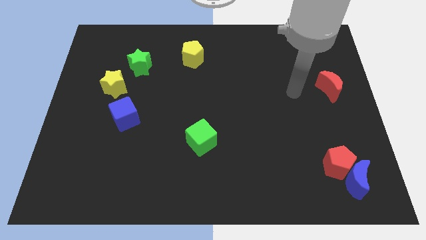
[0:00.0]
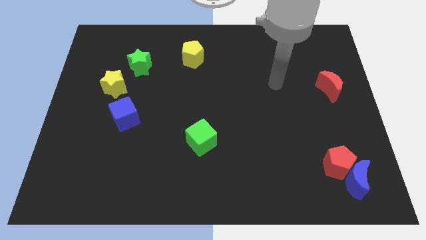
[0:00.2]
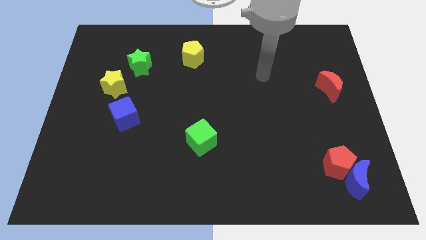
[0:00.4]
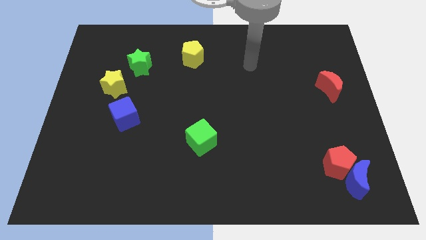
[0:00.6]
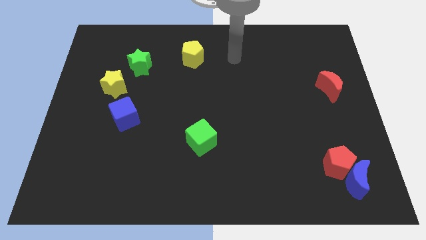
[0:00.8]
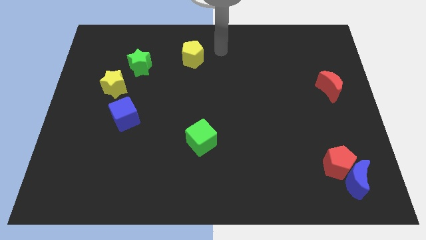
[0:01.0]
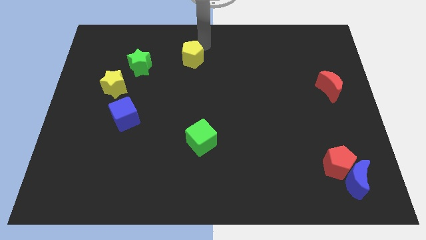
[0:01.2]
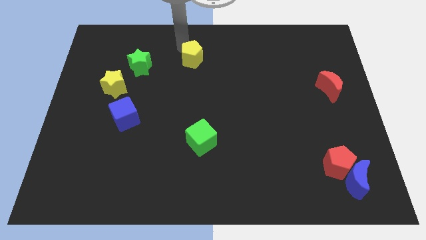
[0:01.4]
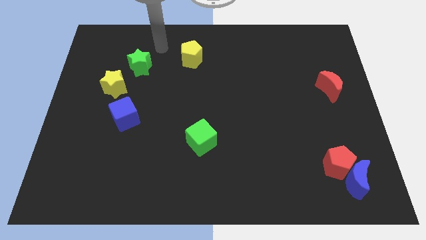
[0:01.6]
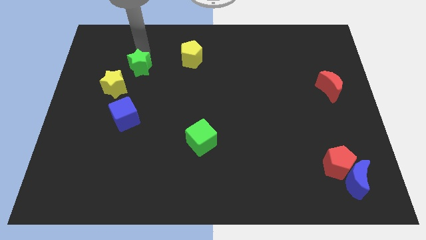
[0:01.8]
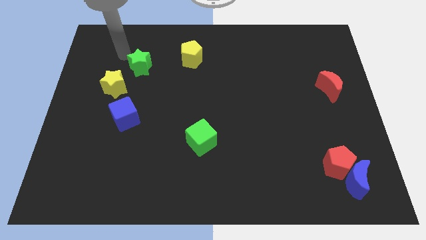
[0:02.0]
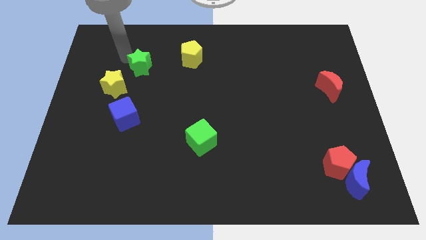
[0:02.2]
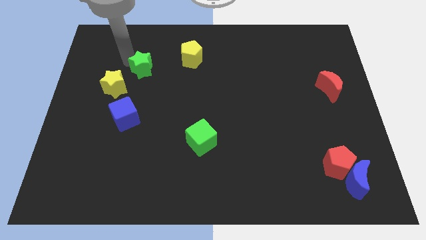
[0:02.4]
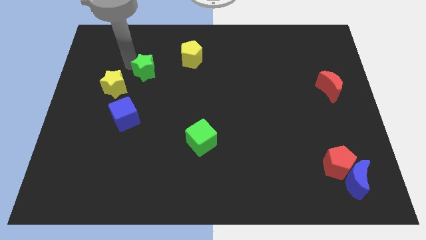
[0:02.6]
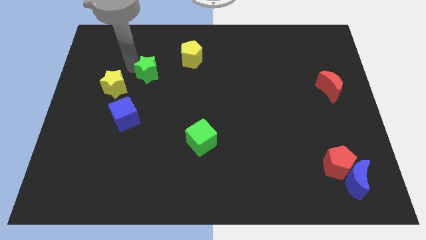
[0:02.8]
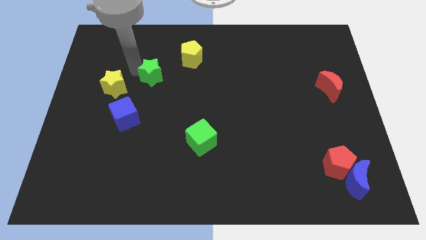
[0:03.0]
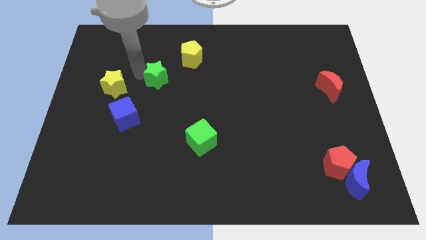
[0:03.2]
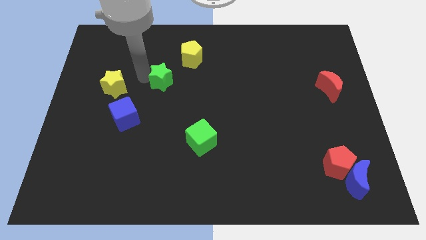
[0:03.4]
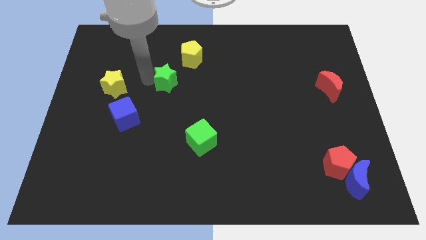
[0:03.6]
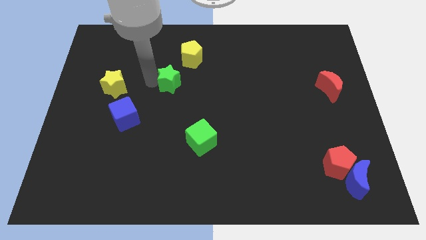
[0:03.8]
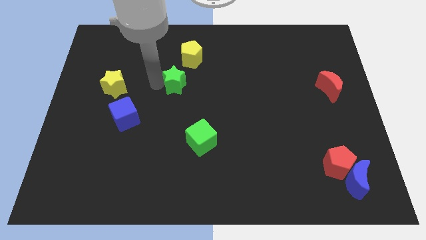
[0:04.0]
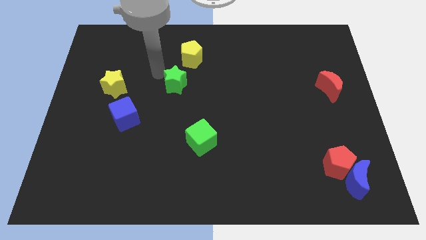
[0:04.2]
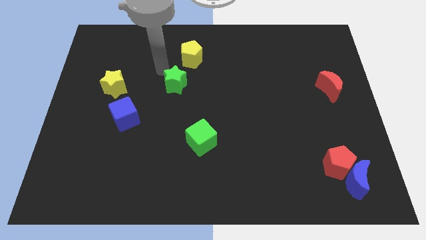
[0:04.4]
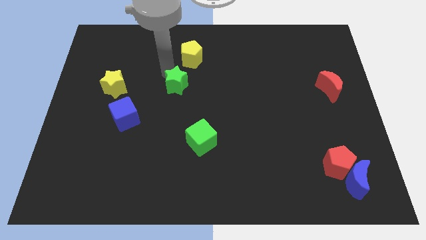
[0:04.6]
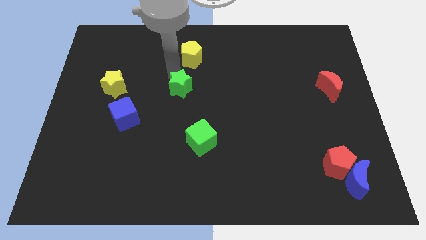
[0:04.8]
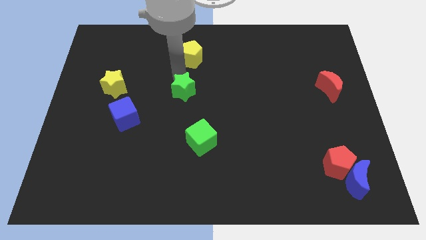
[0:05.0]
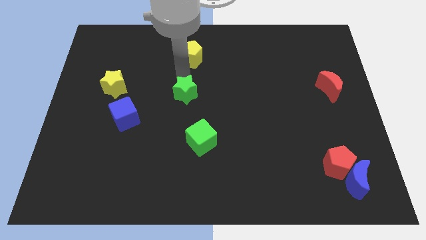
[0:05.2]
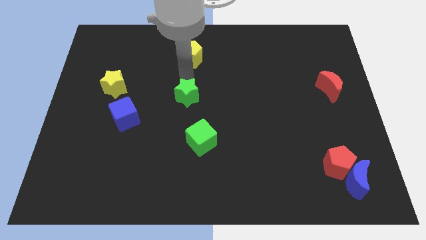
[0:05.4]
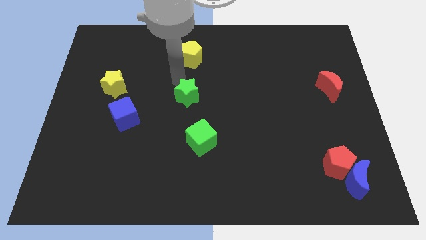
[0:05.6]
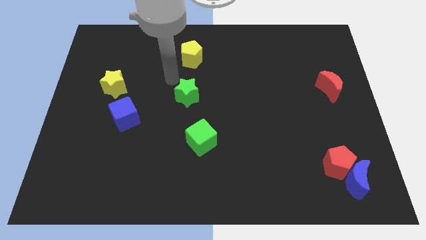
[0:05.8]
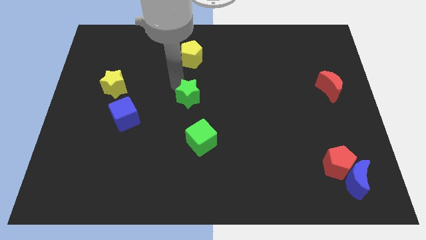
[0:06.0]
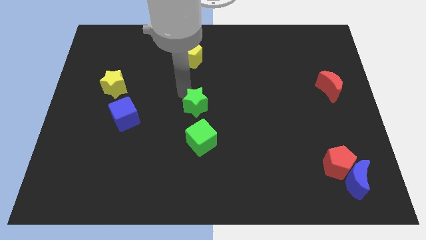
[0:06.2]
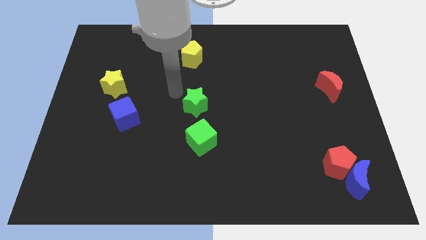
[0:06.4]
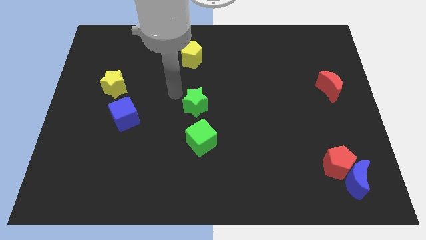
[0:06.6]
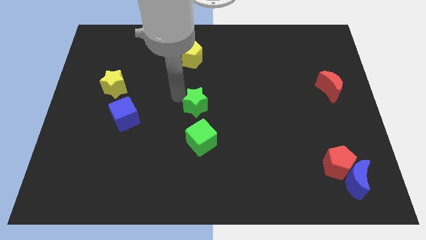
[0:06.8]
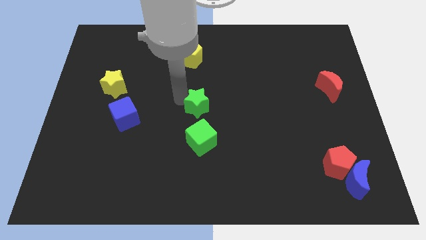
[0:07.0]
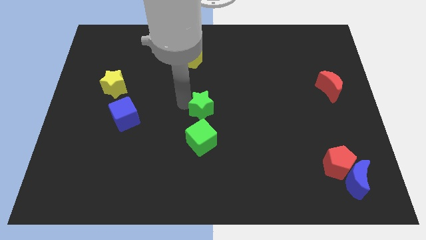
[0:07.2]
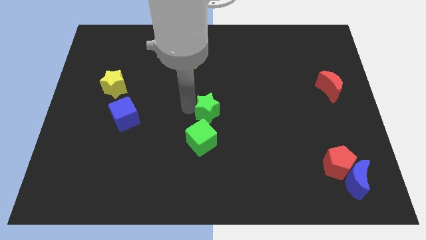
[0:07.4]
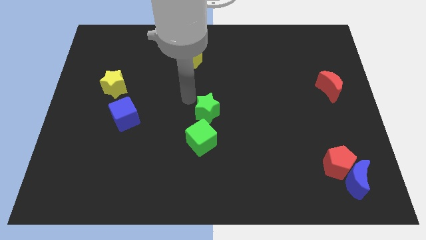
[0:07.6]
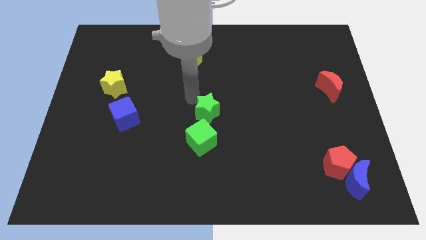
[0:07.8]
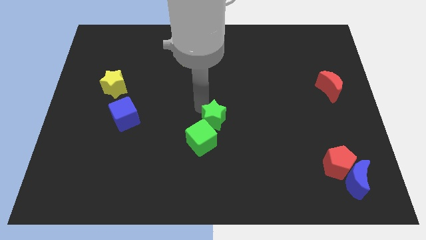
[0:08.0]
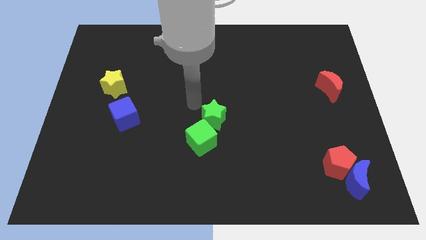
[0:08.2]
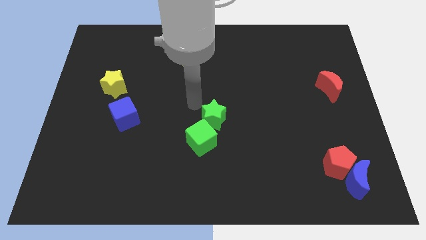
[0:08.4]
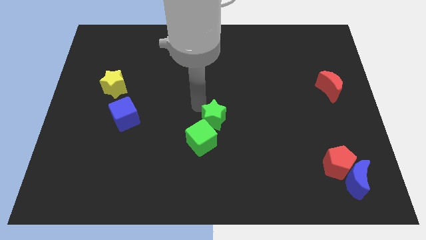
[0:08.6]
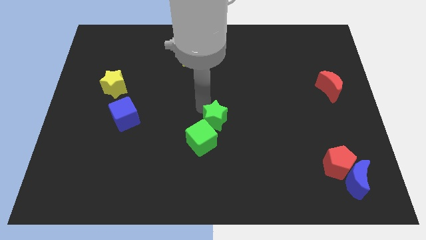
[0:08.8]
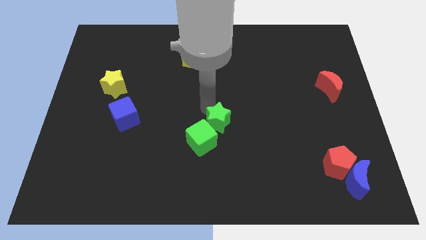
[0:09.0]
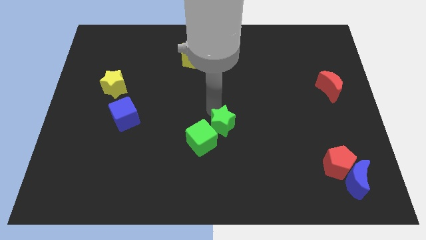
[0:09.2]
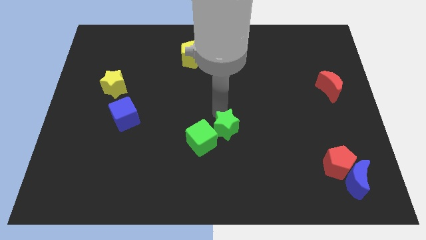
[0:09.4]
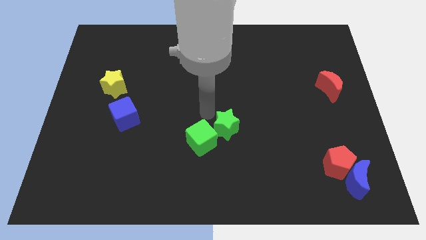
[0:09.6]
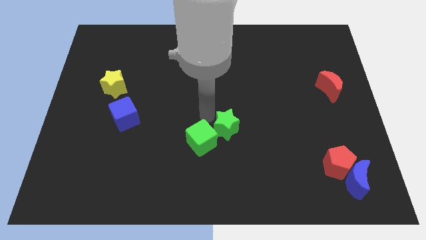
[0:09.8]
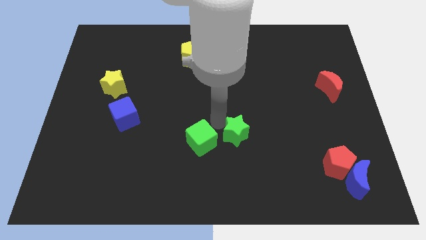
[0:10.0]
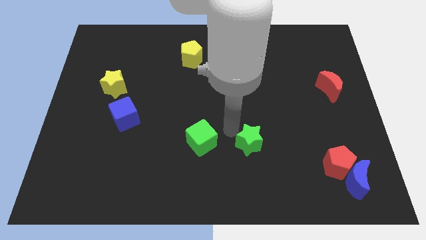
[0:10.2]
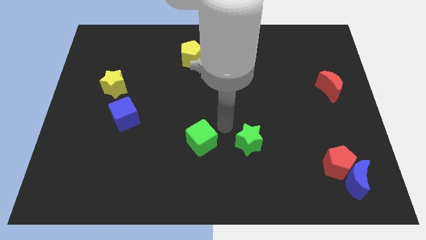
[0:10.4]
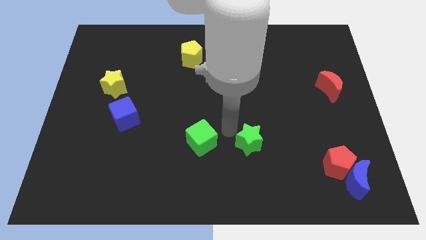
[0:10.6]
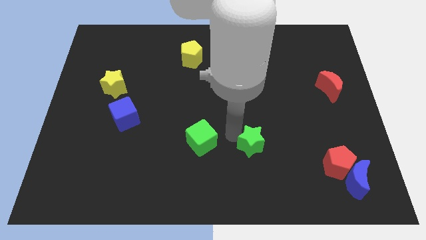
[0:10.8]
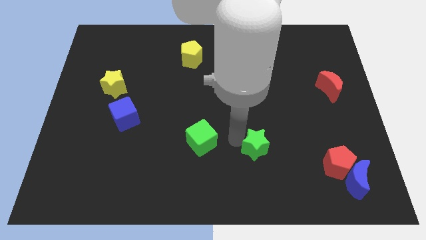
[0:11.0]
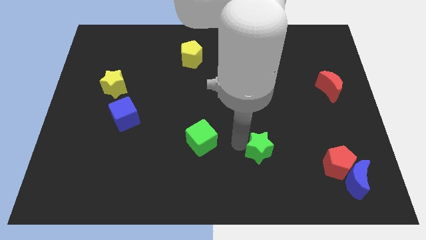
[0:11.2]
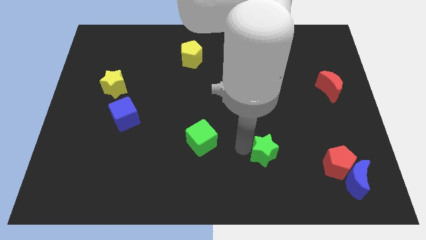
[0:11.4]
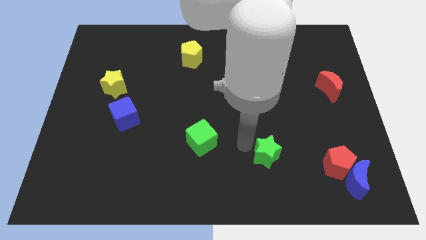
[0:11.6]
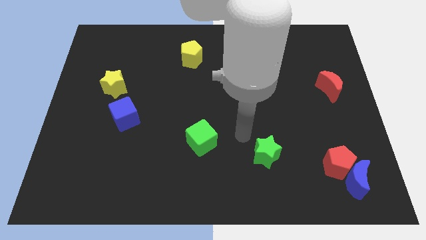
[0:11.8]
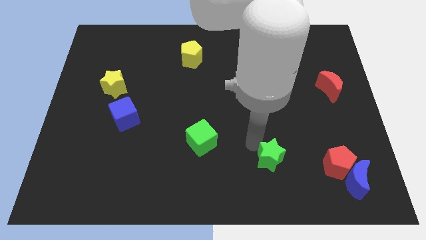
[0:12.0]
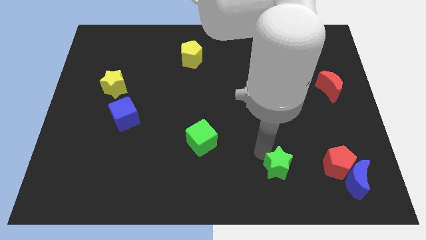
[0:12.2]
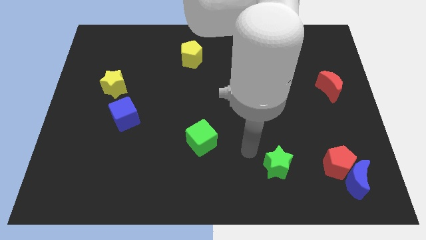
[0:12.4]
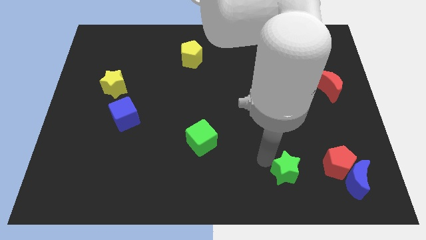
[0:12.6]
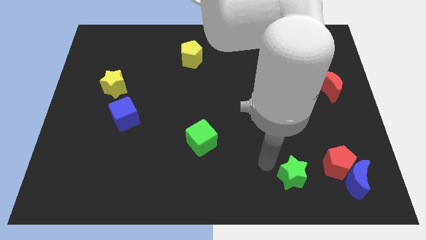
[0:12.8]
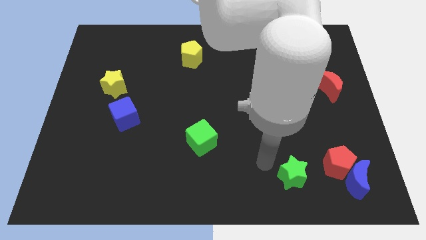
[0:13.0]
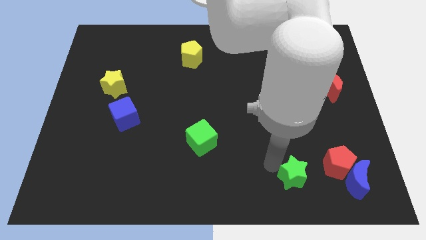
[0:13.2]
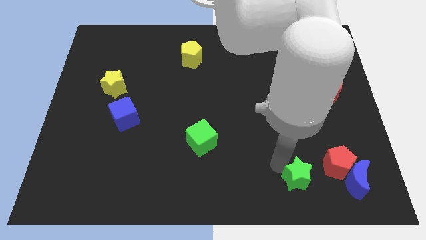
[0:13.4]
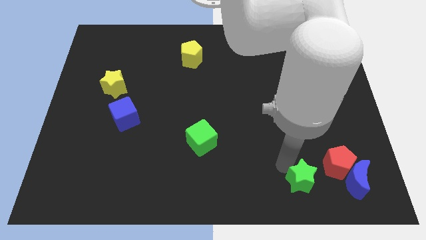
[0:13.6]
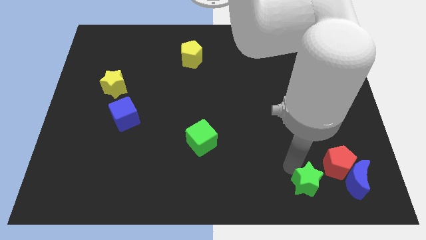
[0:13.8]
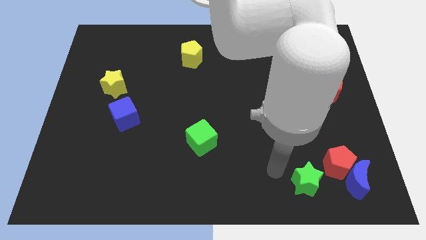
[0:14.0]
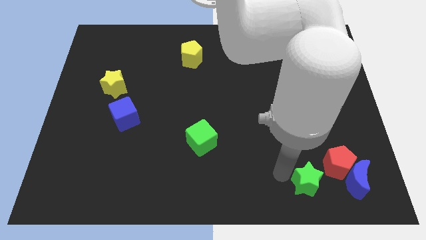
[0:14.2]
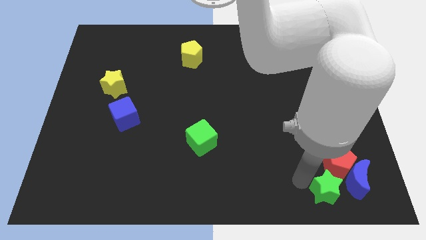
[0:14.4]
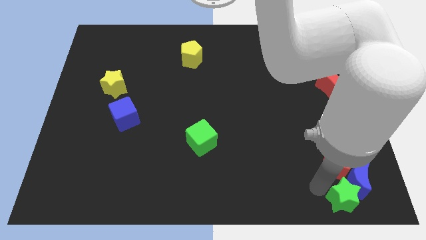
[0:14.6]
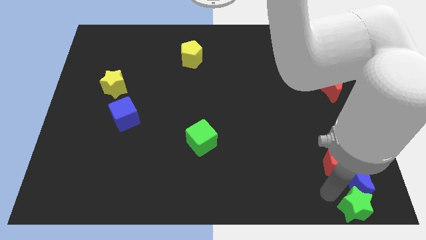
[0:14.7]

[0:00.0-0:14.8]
move the green star to the bottom right corner
